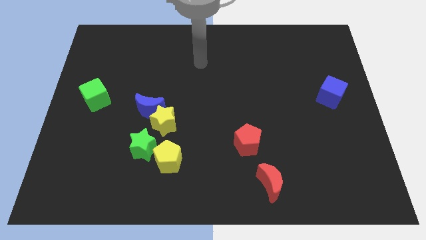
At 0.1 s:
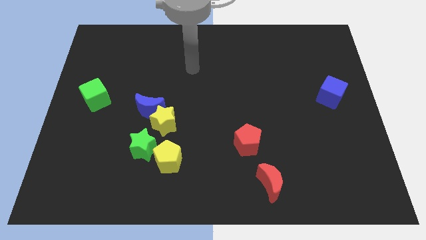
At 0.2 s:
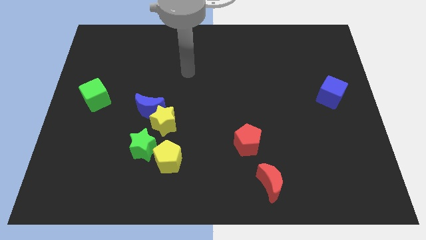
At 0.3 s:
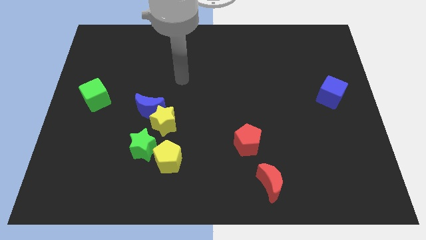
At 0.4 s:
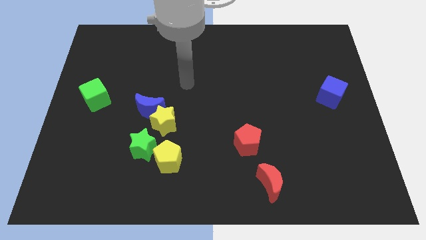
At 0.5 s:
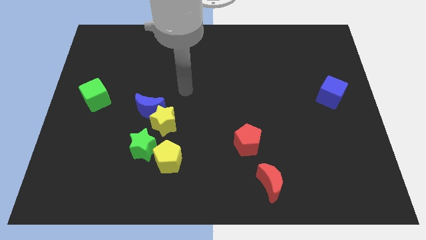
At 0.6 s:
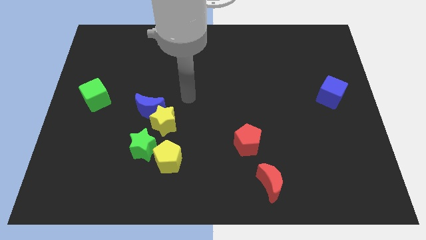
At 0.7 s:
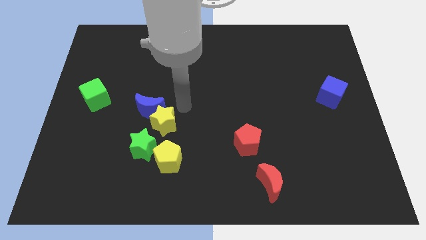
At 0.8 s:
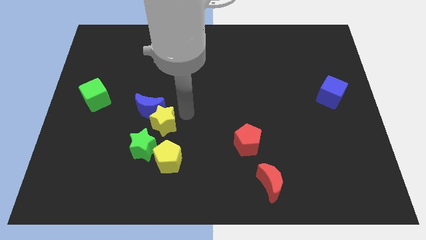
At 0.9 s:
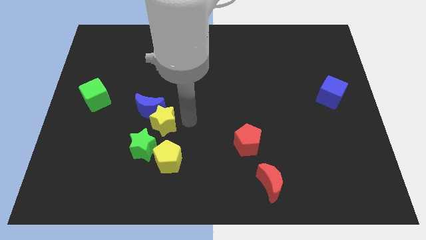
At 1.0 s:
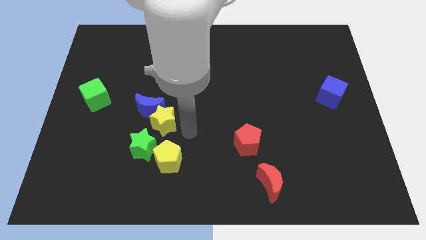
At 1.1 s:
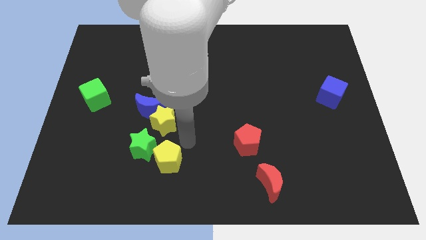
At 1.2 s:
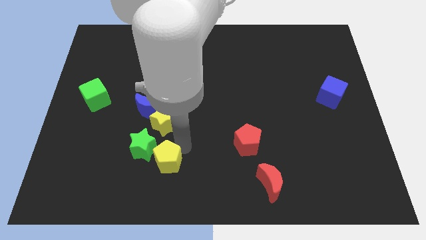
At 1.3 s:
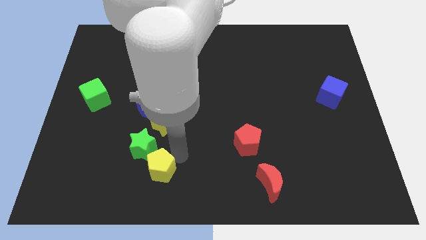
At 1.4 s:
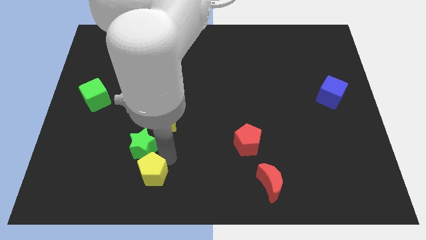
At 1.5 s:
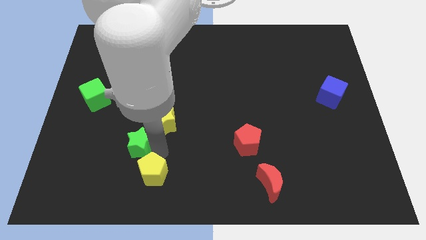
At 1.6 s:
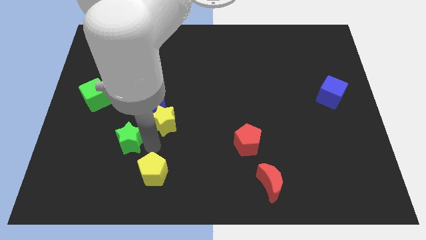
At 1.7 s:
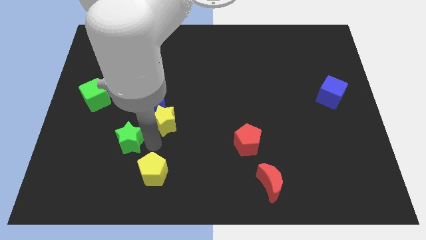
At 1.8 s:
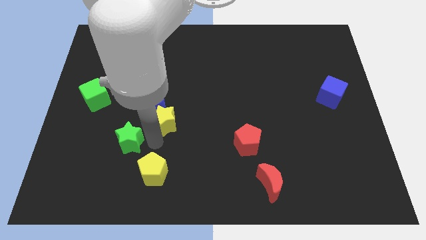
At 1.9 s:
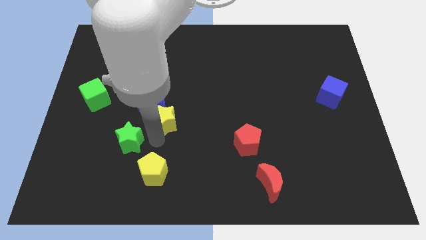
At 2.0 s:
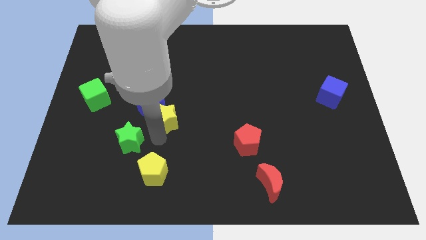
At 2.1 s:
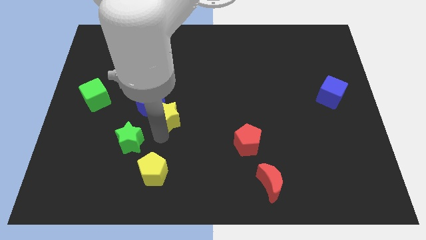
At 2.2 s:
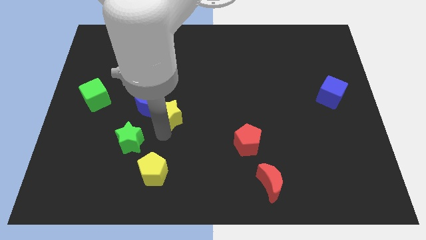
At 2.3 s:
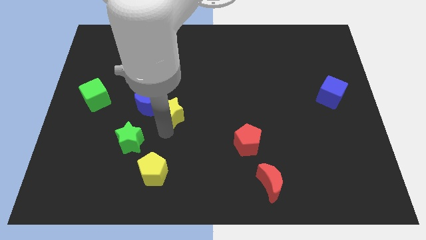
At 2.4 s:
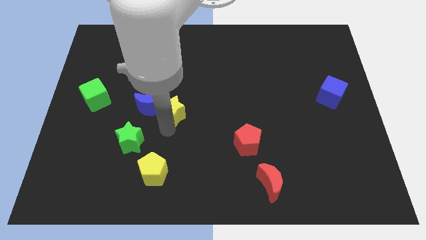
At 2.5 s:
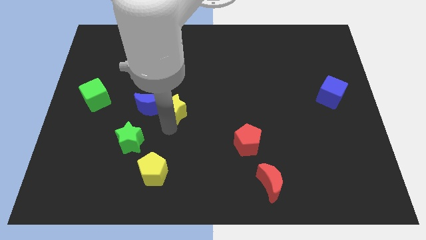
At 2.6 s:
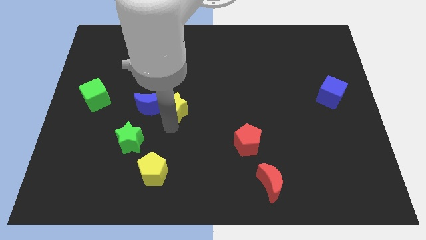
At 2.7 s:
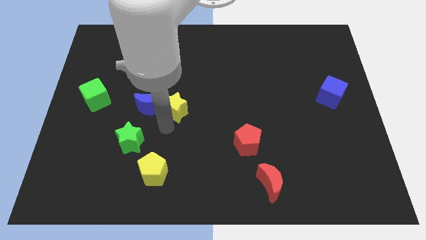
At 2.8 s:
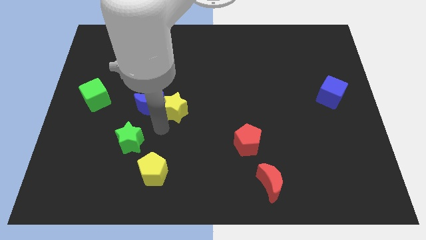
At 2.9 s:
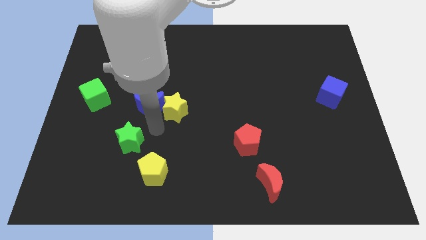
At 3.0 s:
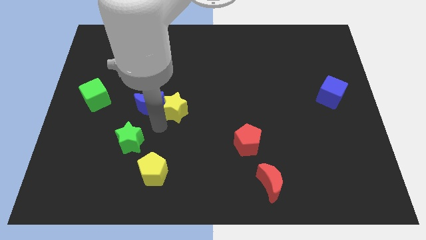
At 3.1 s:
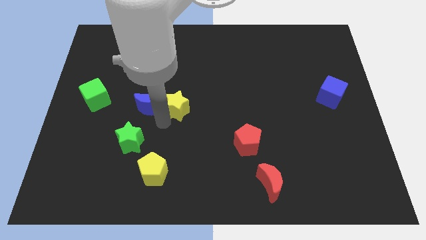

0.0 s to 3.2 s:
move the yellow star away from the blue moon, green star, and yellow pentagon

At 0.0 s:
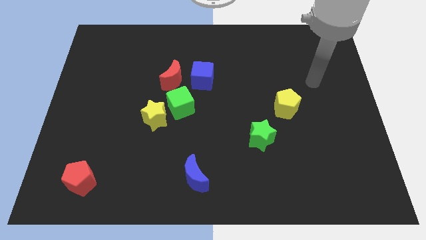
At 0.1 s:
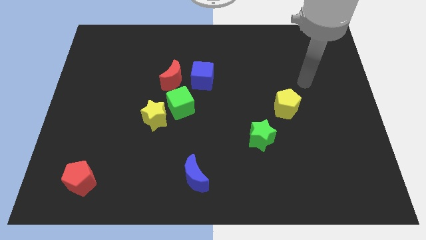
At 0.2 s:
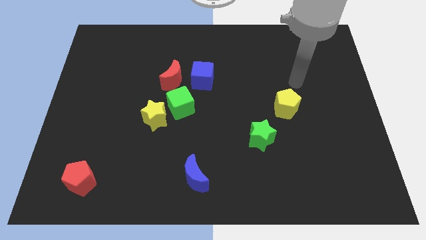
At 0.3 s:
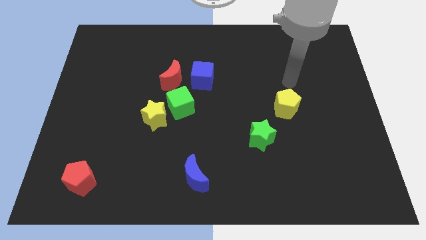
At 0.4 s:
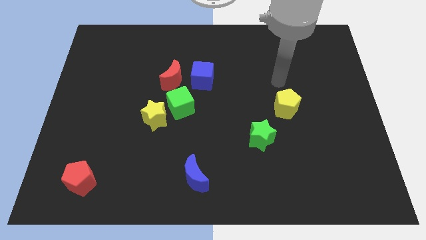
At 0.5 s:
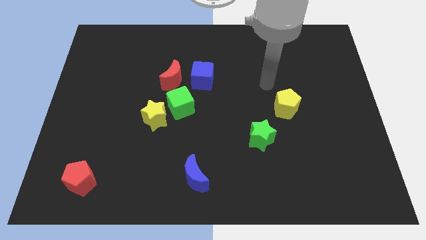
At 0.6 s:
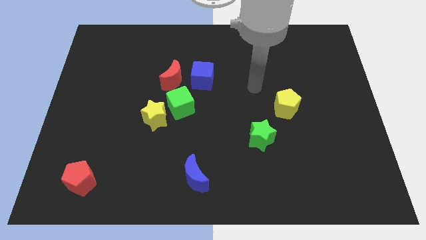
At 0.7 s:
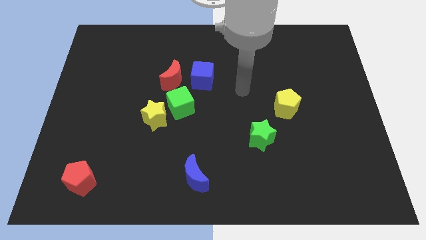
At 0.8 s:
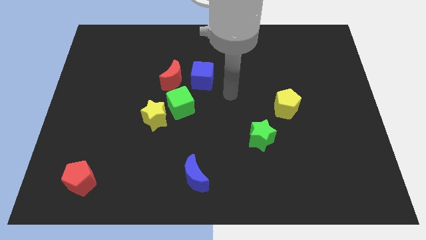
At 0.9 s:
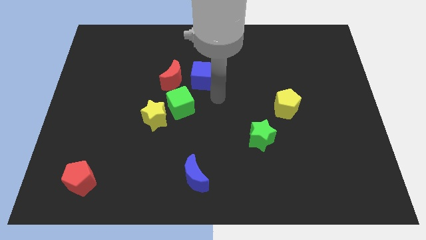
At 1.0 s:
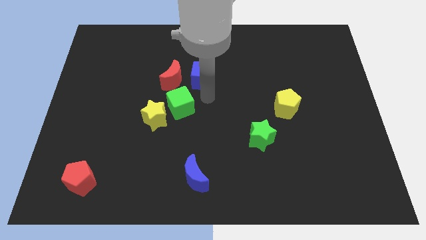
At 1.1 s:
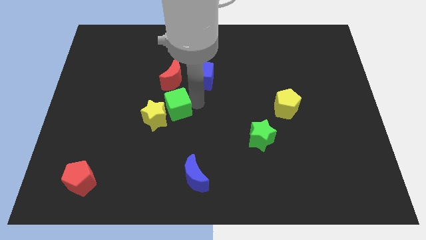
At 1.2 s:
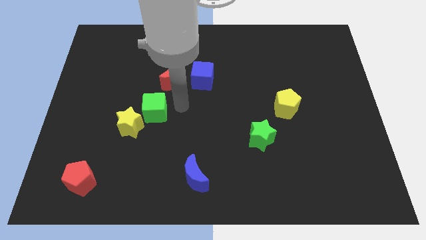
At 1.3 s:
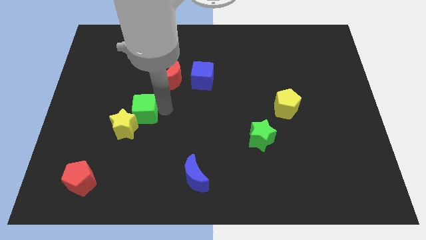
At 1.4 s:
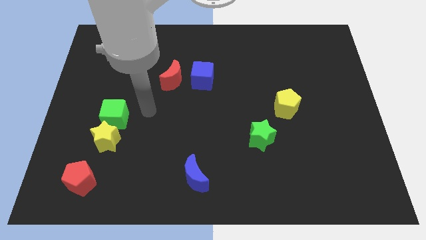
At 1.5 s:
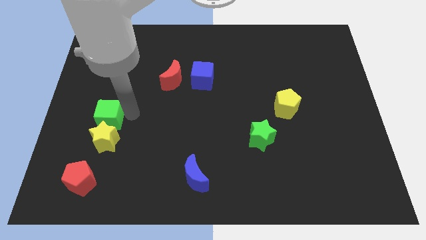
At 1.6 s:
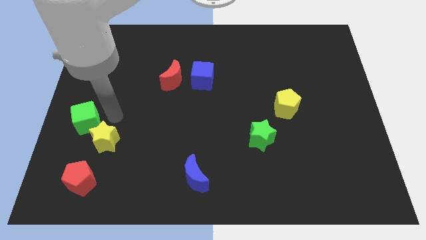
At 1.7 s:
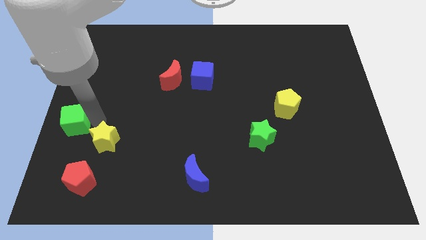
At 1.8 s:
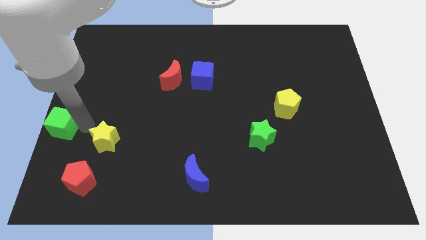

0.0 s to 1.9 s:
move the yellow star away from the green cube

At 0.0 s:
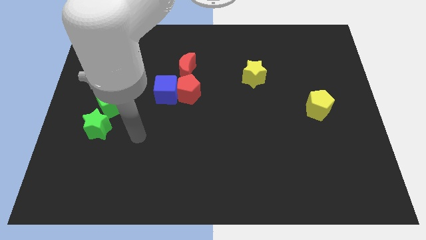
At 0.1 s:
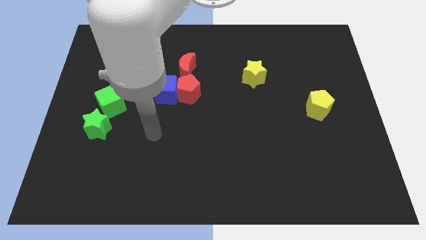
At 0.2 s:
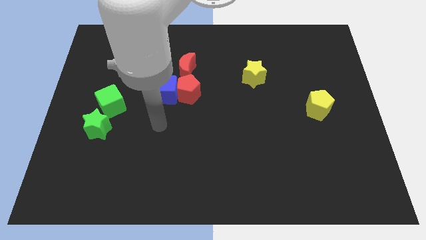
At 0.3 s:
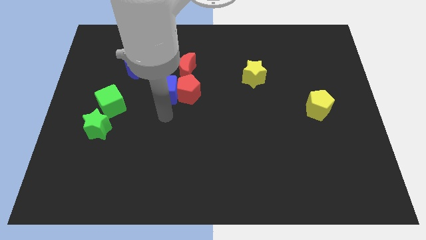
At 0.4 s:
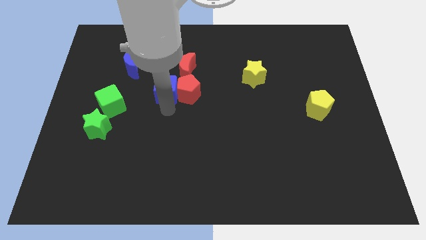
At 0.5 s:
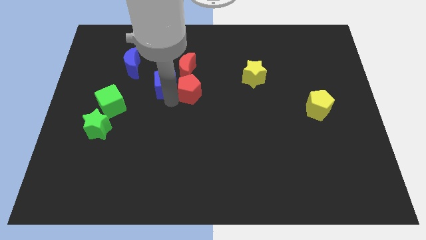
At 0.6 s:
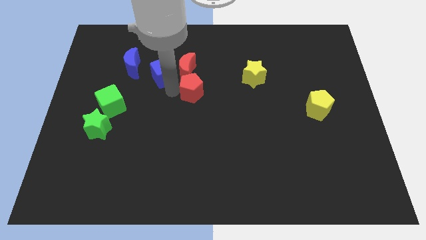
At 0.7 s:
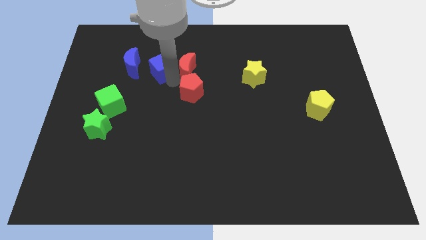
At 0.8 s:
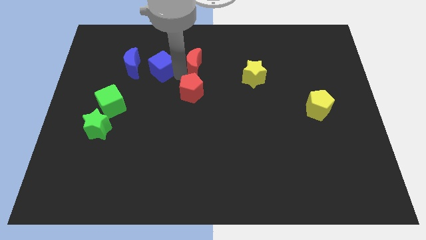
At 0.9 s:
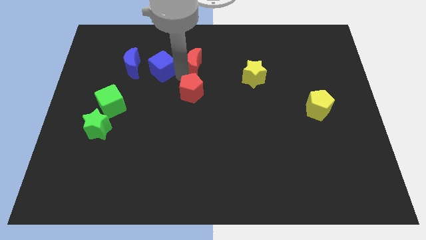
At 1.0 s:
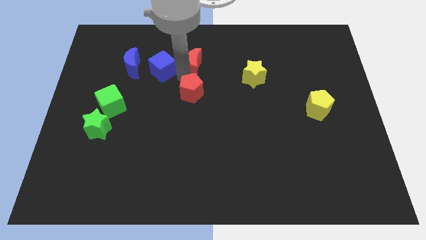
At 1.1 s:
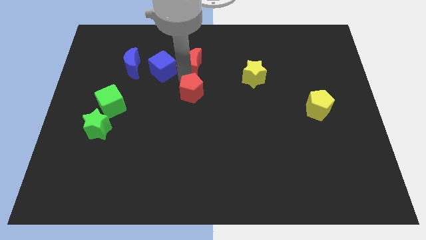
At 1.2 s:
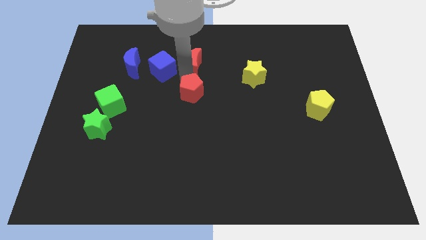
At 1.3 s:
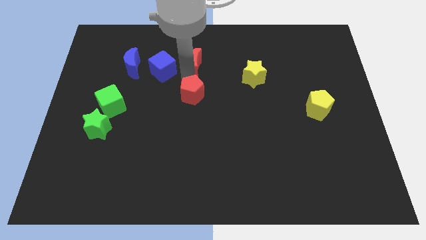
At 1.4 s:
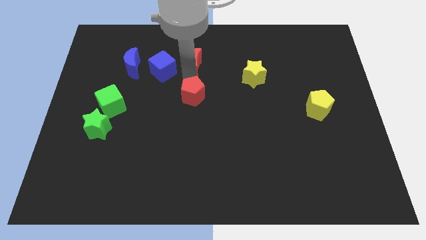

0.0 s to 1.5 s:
separate the red pentagon from the blue cube and red moon

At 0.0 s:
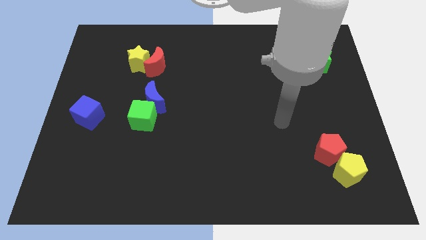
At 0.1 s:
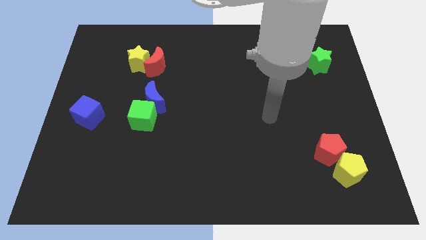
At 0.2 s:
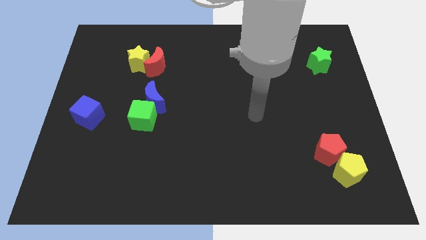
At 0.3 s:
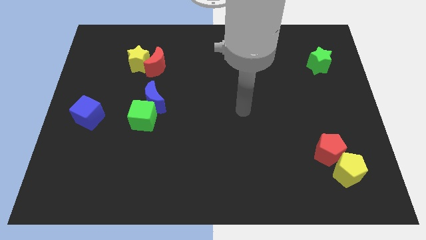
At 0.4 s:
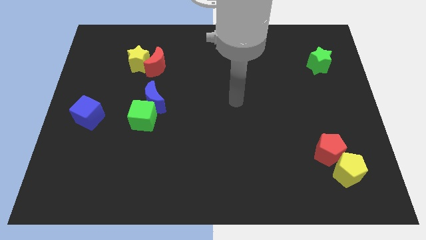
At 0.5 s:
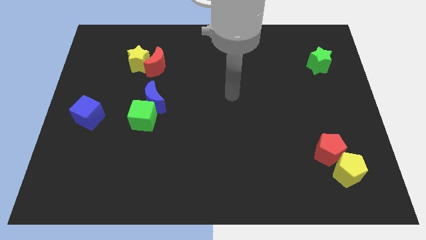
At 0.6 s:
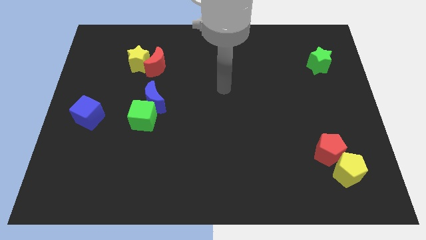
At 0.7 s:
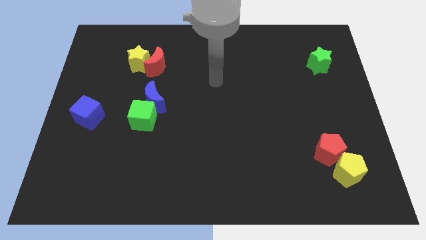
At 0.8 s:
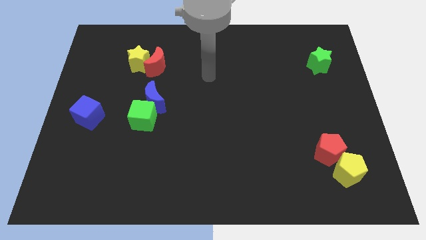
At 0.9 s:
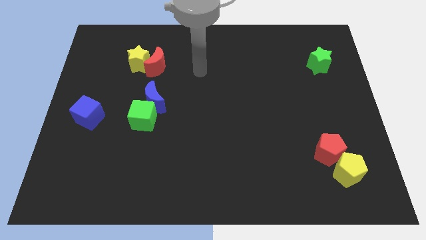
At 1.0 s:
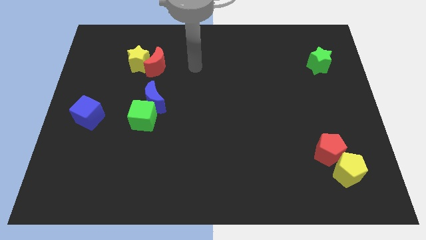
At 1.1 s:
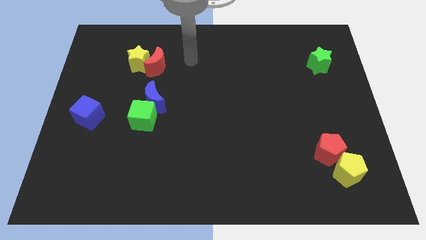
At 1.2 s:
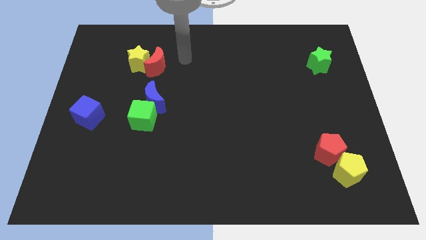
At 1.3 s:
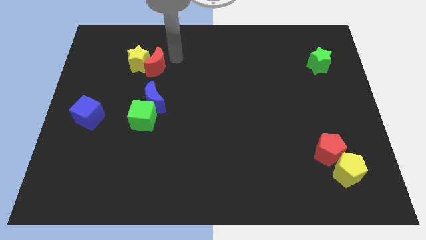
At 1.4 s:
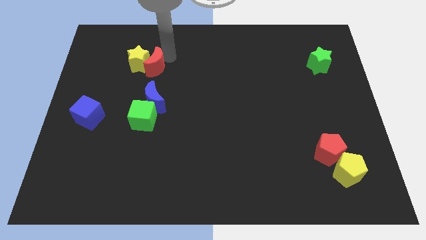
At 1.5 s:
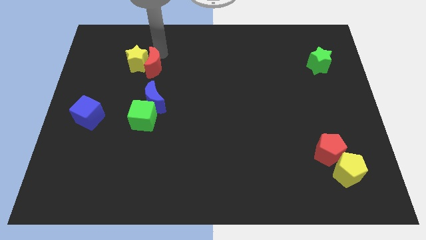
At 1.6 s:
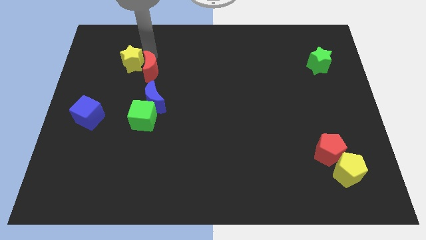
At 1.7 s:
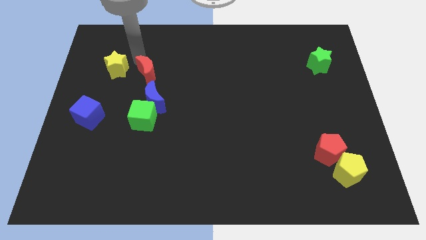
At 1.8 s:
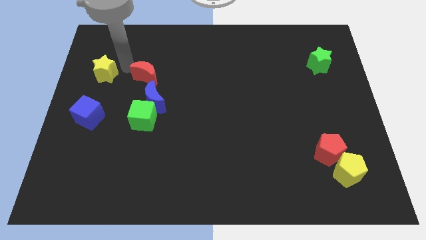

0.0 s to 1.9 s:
pull the red moon apart from the yellow star

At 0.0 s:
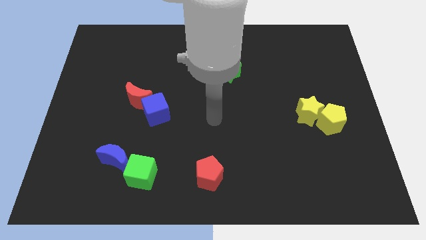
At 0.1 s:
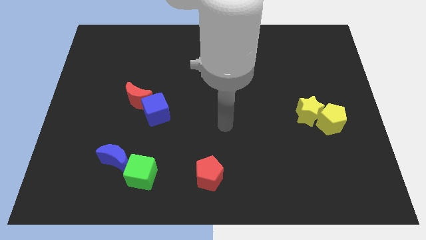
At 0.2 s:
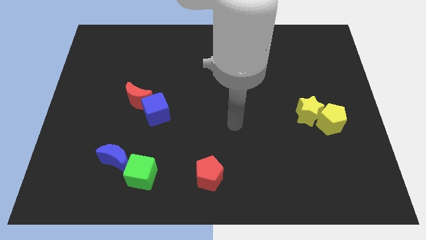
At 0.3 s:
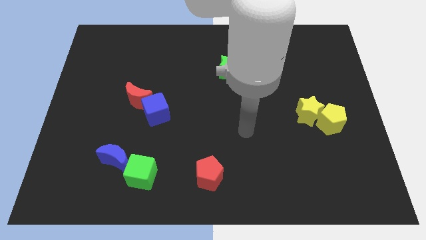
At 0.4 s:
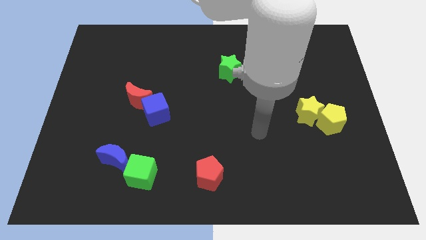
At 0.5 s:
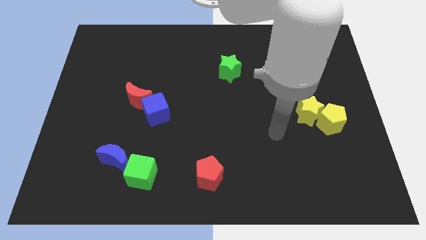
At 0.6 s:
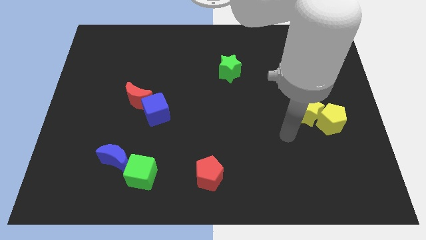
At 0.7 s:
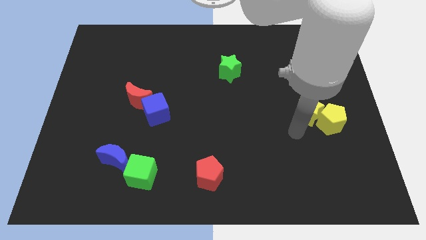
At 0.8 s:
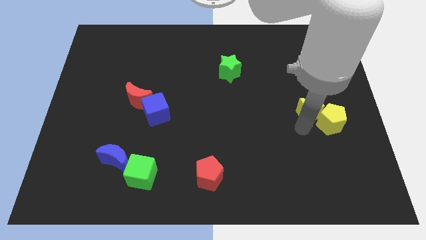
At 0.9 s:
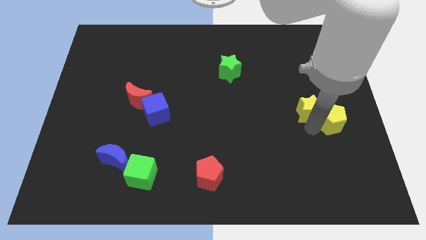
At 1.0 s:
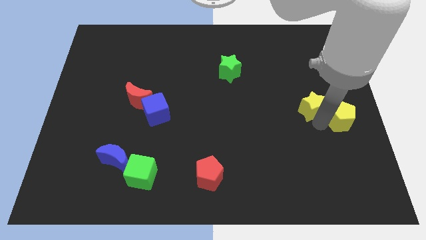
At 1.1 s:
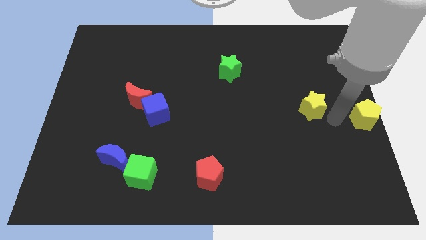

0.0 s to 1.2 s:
move the yellow star away from the yellow pentagon
